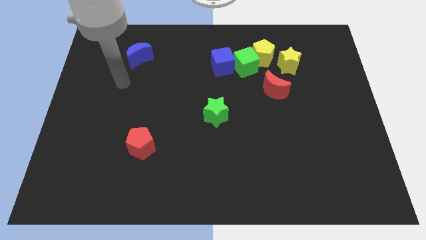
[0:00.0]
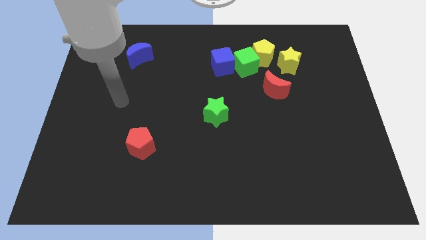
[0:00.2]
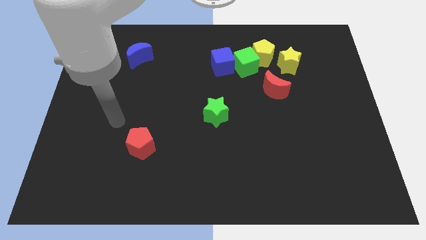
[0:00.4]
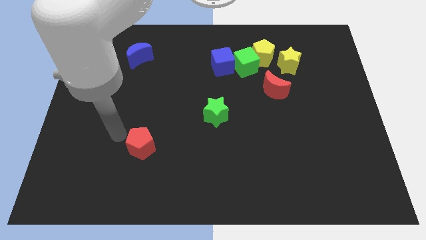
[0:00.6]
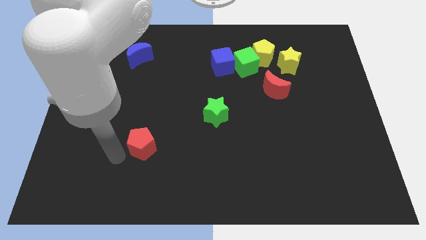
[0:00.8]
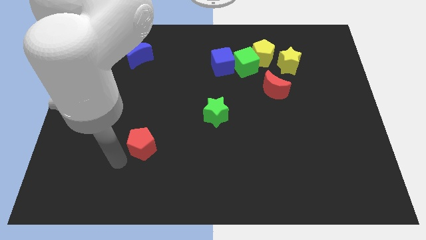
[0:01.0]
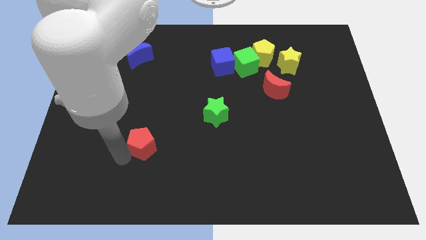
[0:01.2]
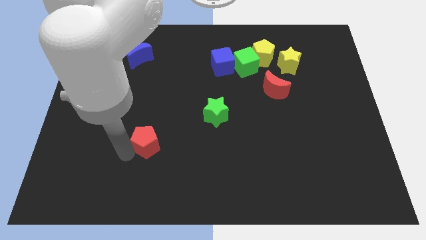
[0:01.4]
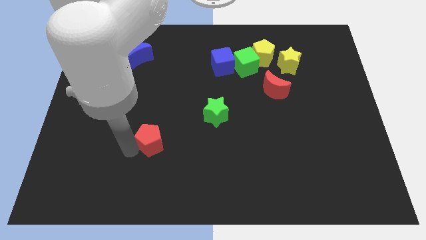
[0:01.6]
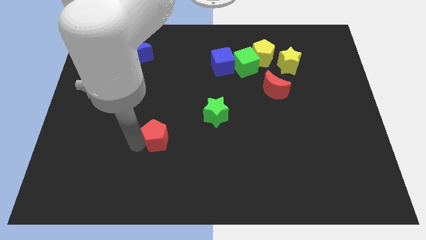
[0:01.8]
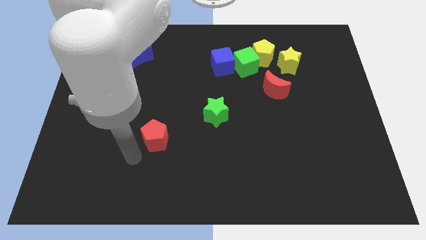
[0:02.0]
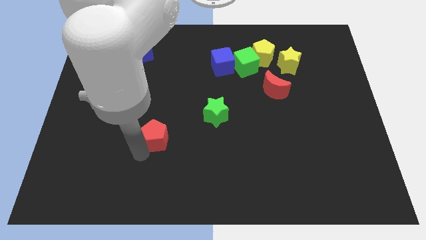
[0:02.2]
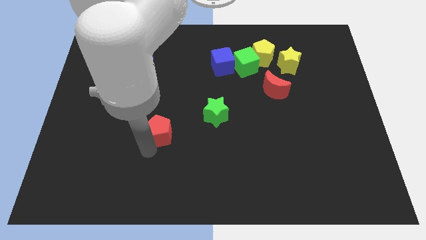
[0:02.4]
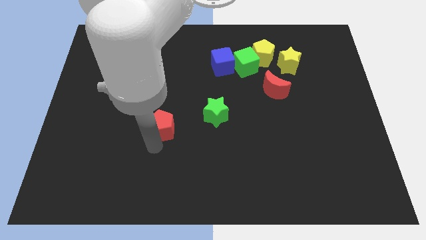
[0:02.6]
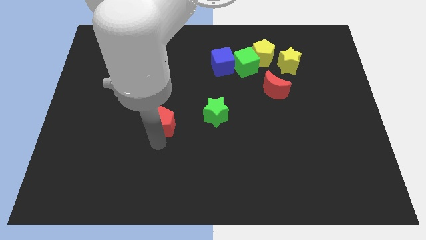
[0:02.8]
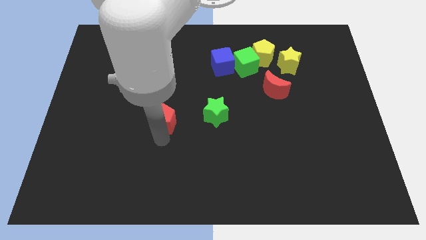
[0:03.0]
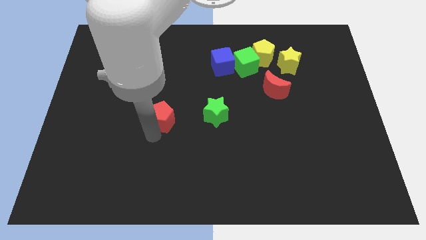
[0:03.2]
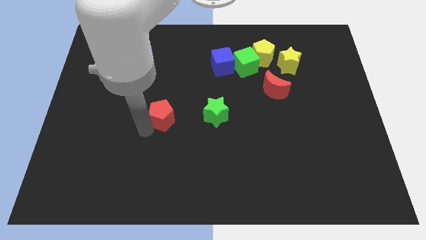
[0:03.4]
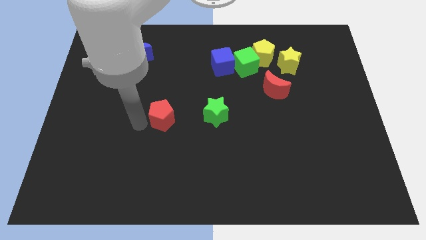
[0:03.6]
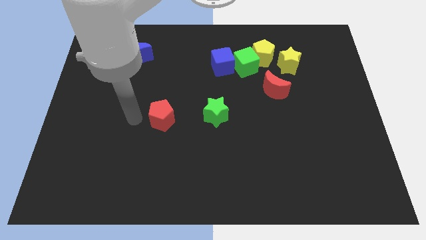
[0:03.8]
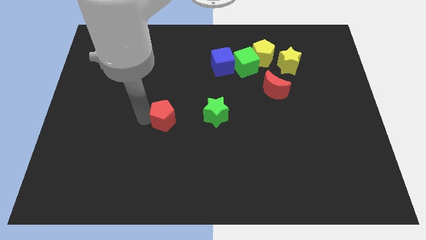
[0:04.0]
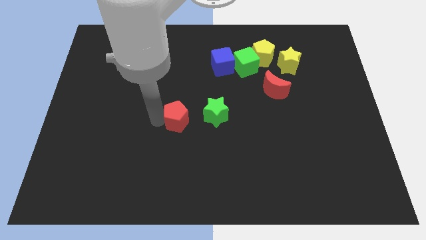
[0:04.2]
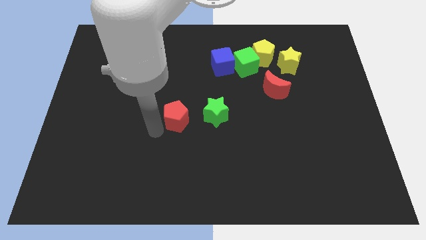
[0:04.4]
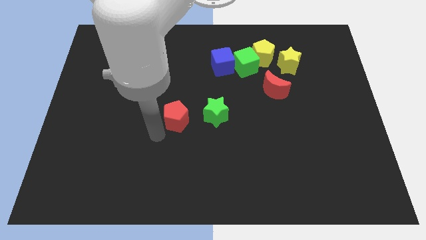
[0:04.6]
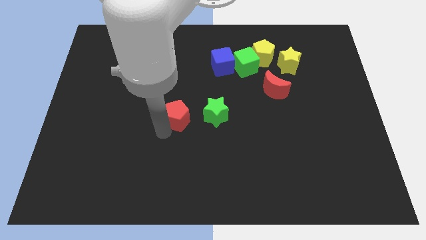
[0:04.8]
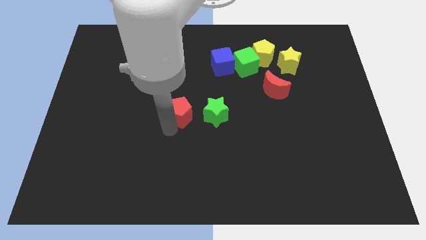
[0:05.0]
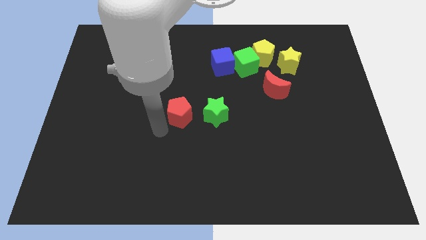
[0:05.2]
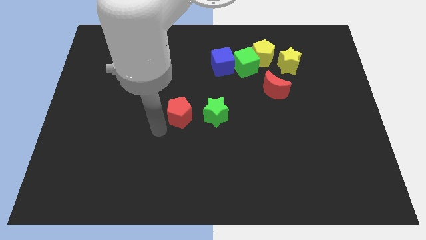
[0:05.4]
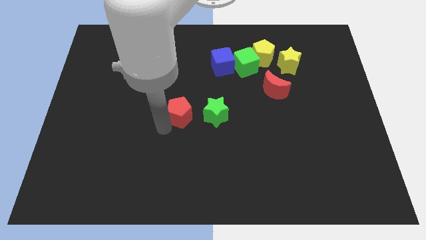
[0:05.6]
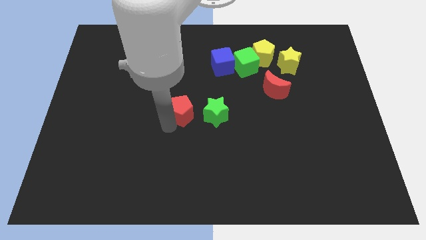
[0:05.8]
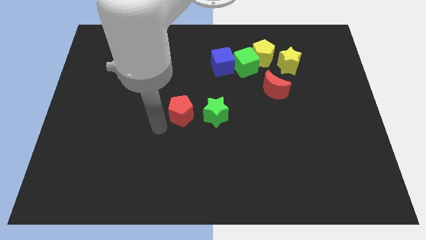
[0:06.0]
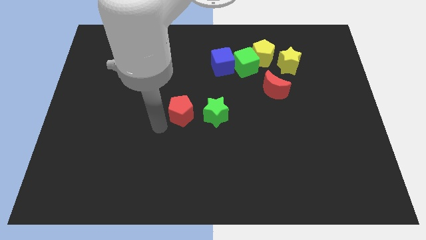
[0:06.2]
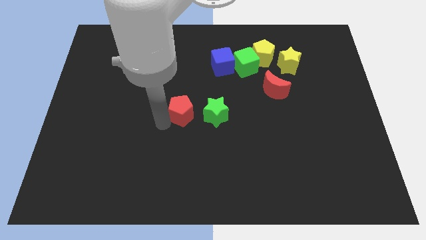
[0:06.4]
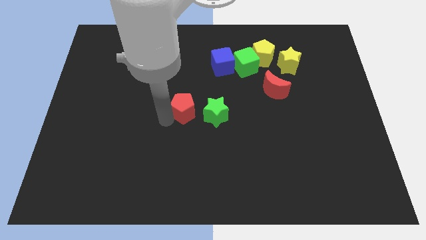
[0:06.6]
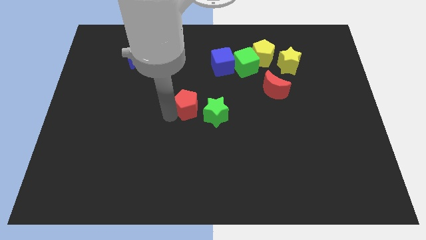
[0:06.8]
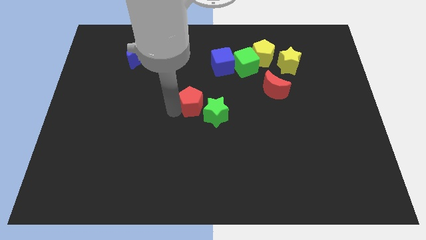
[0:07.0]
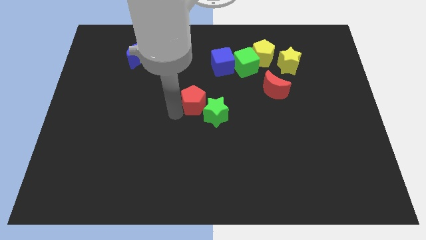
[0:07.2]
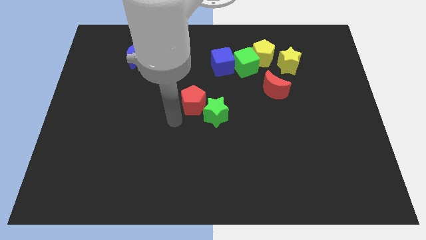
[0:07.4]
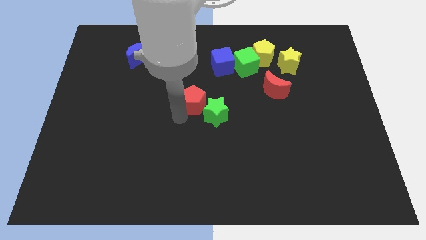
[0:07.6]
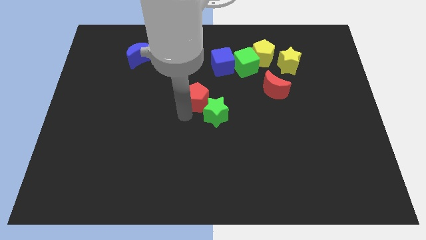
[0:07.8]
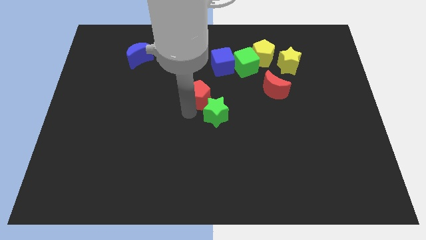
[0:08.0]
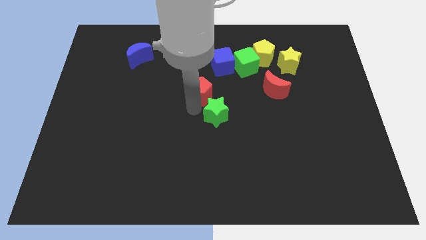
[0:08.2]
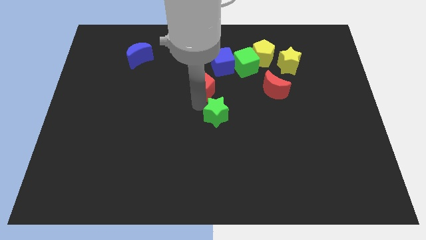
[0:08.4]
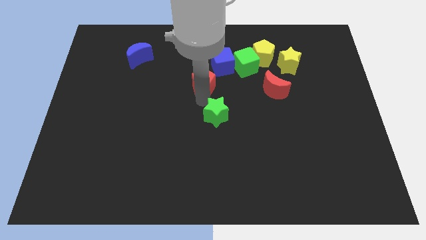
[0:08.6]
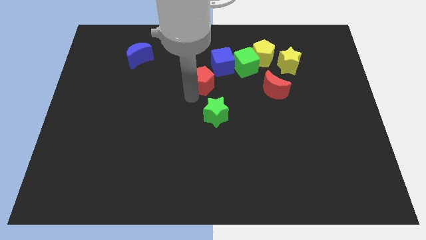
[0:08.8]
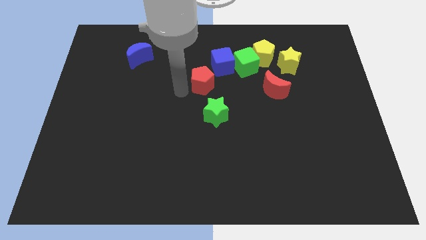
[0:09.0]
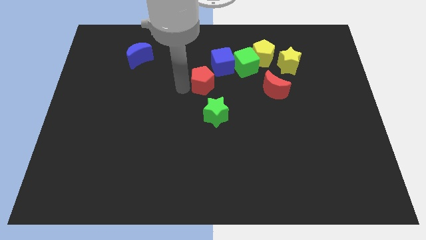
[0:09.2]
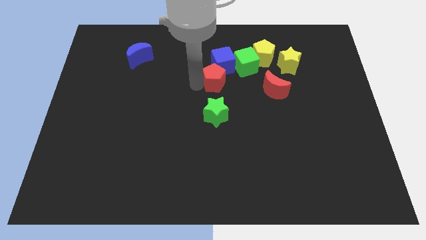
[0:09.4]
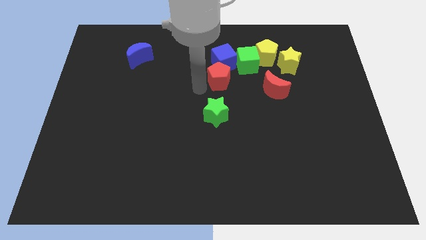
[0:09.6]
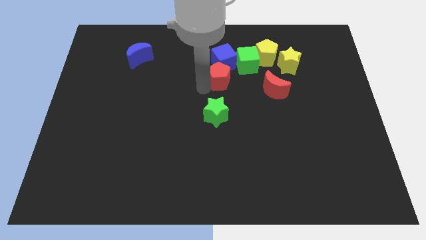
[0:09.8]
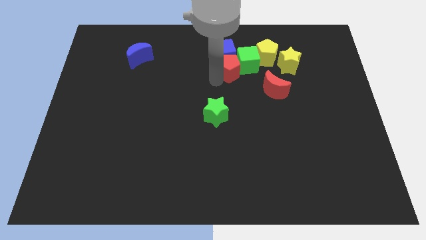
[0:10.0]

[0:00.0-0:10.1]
push the red pentagon close to the green cube

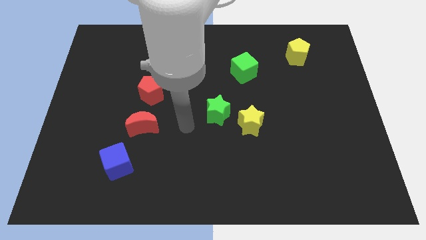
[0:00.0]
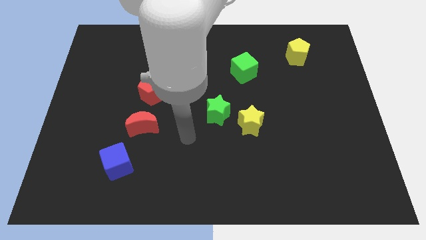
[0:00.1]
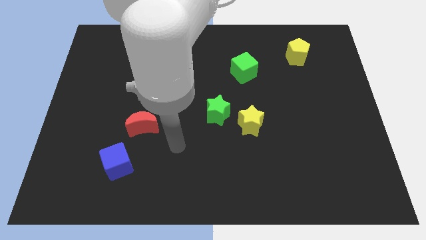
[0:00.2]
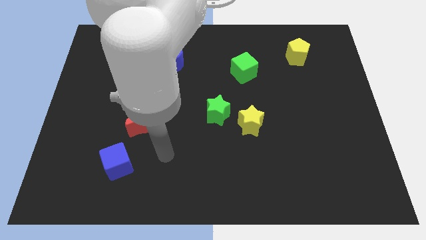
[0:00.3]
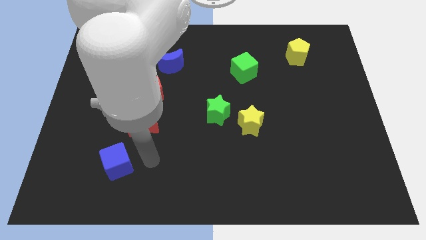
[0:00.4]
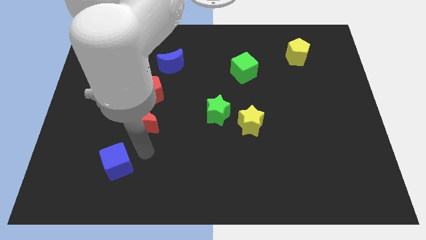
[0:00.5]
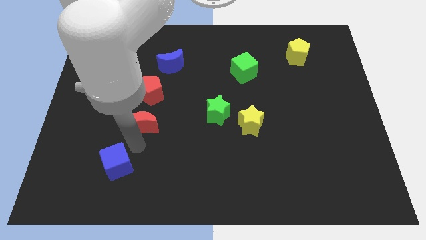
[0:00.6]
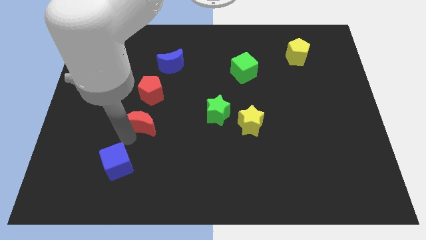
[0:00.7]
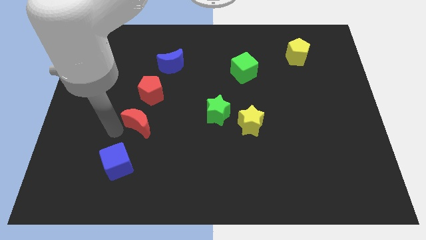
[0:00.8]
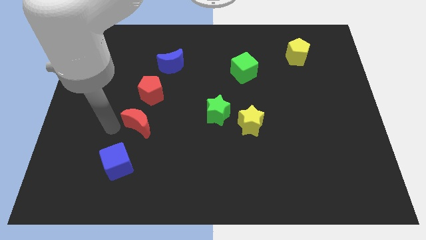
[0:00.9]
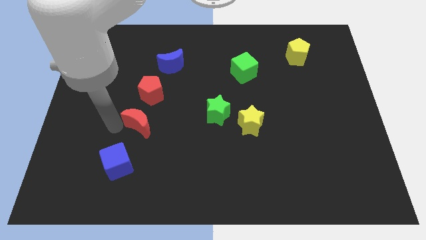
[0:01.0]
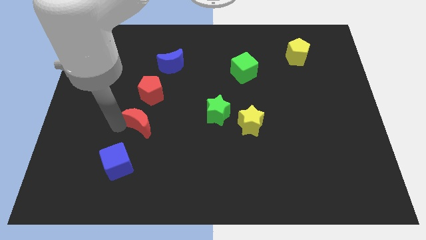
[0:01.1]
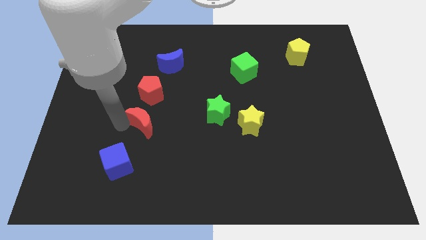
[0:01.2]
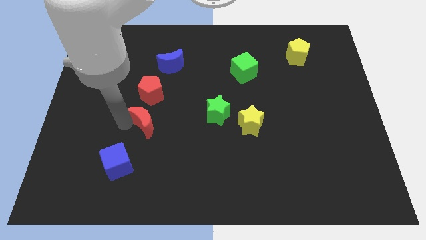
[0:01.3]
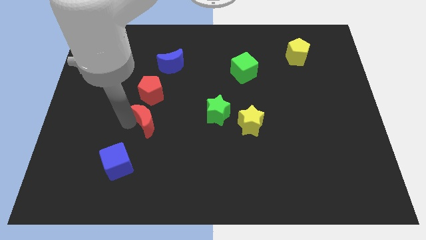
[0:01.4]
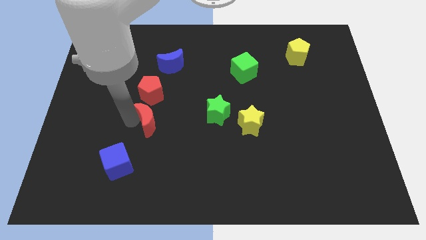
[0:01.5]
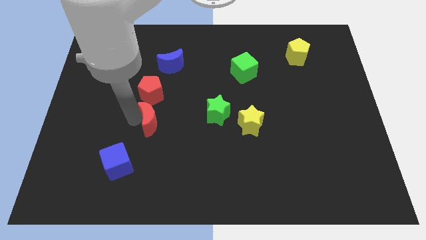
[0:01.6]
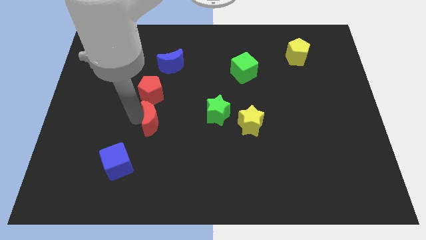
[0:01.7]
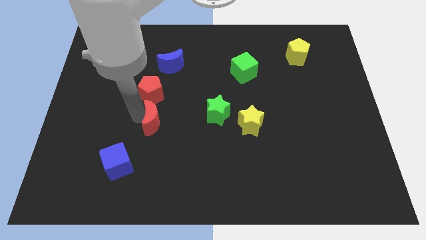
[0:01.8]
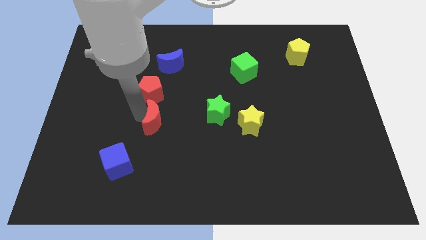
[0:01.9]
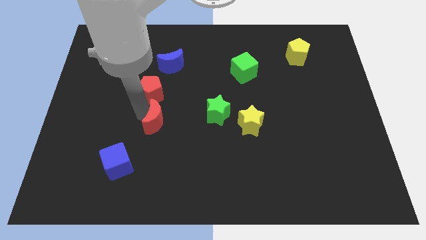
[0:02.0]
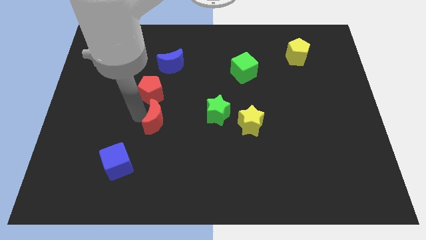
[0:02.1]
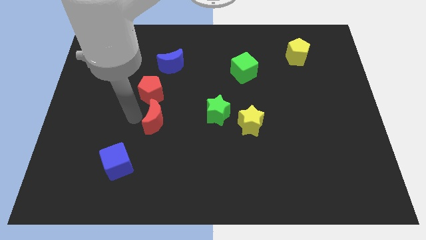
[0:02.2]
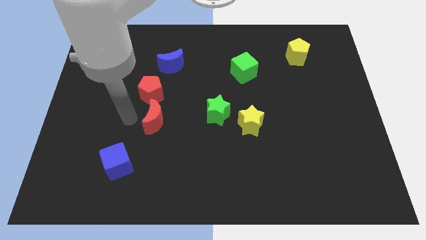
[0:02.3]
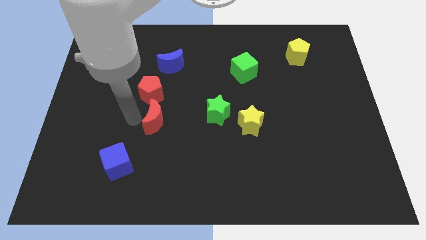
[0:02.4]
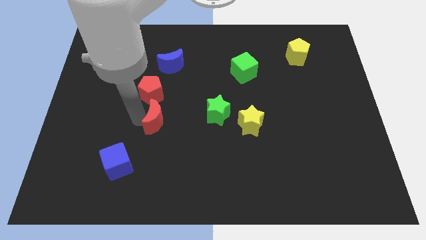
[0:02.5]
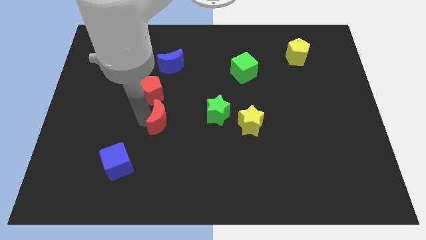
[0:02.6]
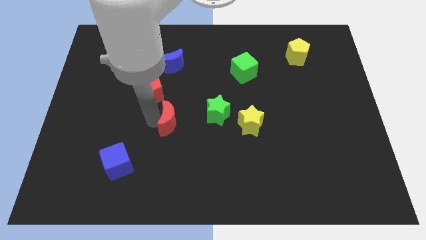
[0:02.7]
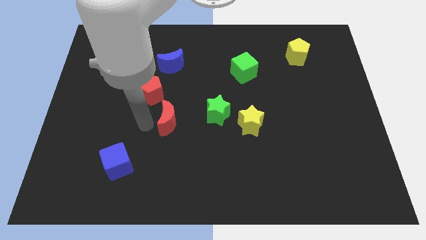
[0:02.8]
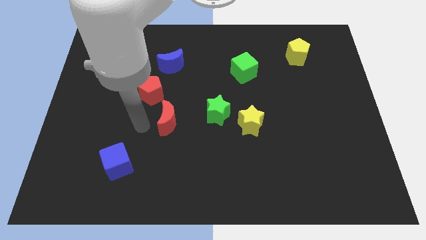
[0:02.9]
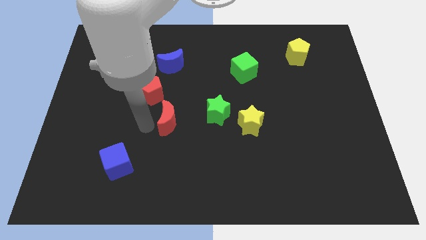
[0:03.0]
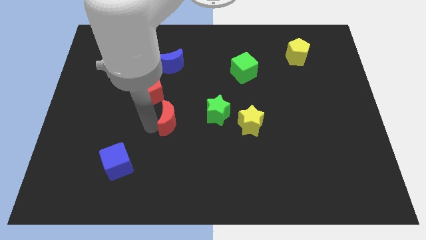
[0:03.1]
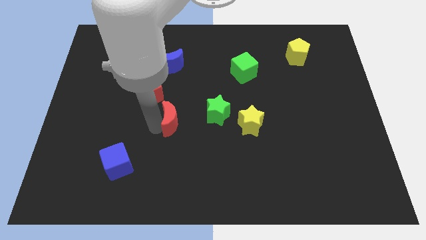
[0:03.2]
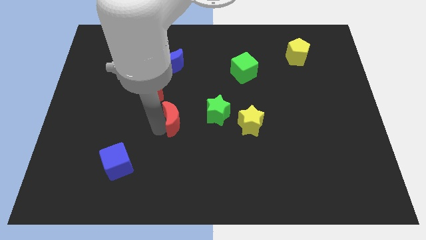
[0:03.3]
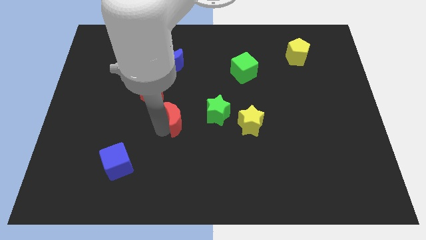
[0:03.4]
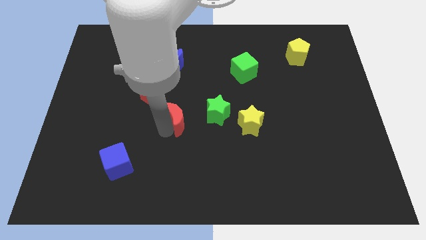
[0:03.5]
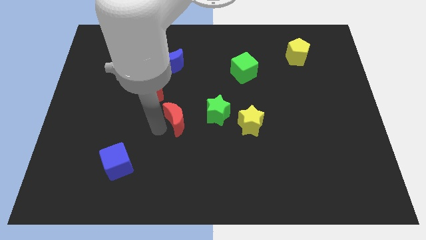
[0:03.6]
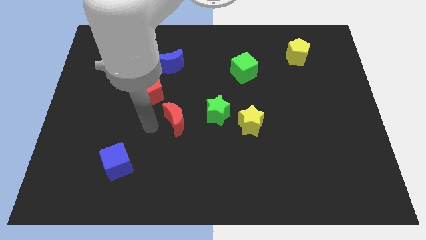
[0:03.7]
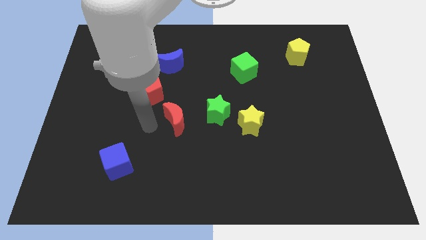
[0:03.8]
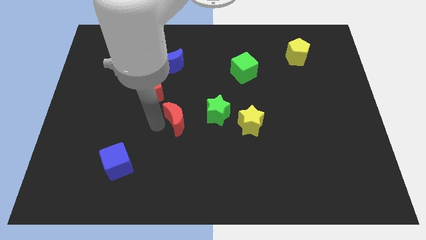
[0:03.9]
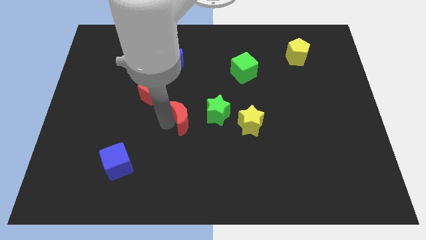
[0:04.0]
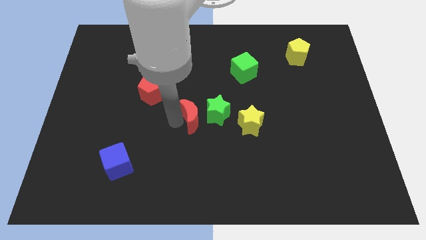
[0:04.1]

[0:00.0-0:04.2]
slide the red moon next to the green star
